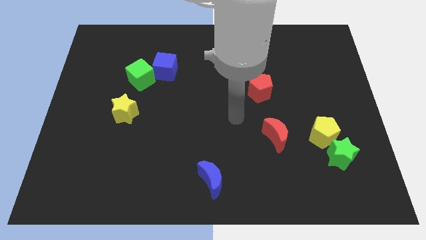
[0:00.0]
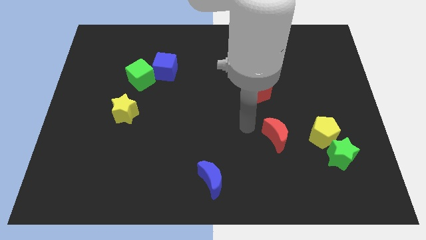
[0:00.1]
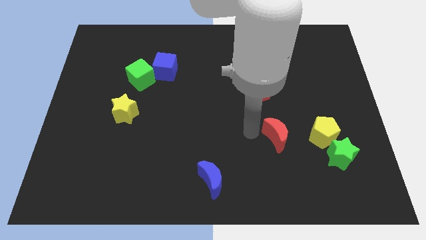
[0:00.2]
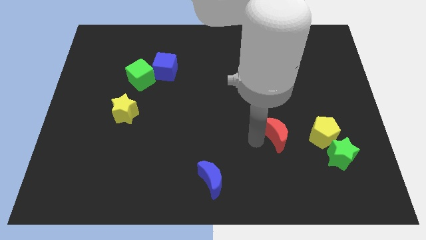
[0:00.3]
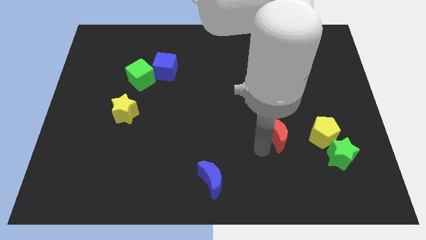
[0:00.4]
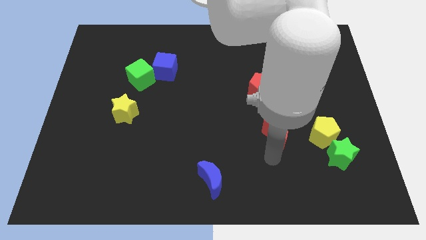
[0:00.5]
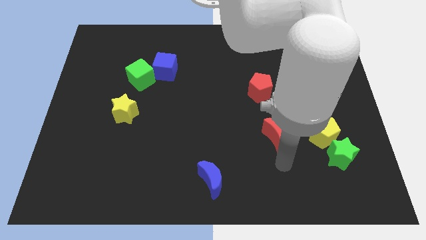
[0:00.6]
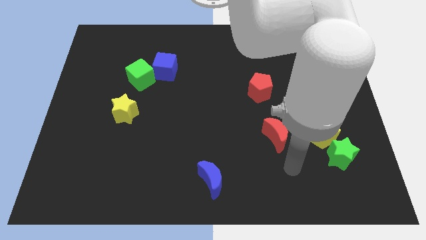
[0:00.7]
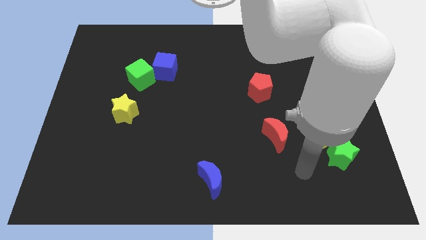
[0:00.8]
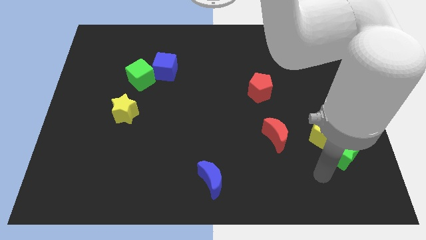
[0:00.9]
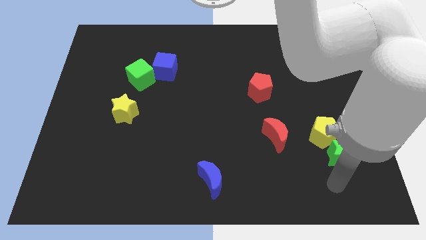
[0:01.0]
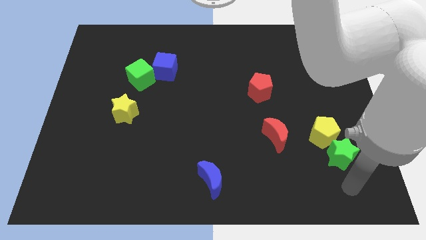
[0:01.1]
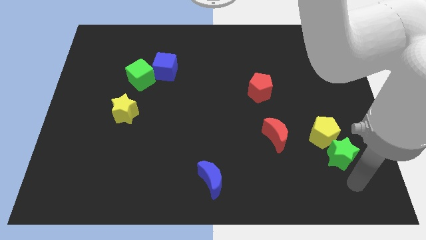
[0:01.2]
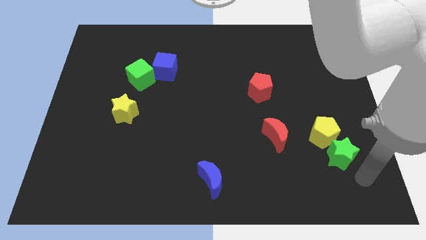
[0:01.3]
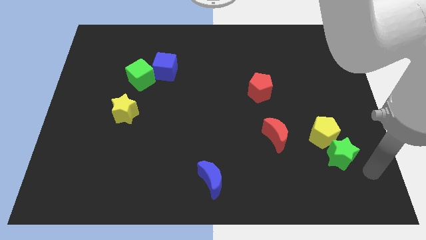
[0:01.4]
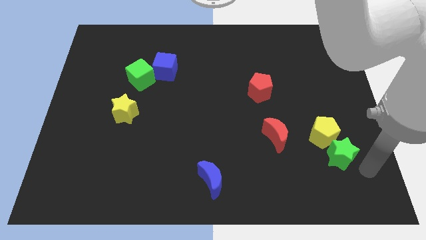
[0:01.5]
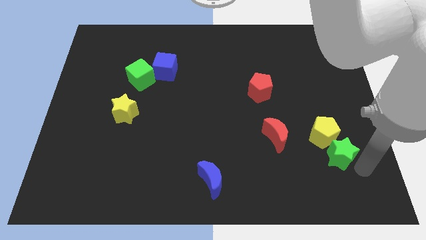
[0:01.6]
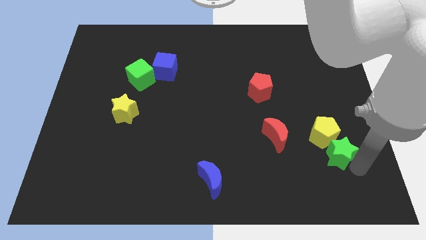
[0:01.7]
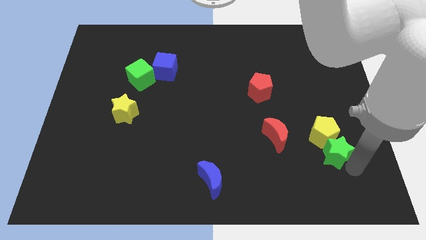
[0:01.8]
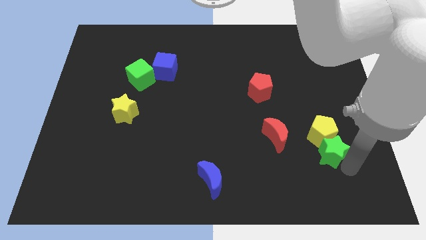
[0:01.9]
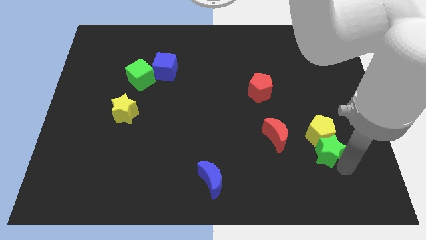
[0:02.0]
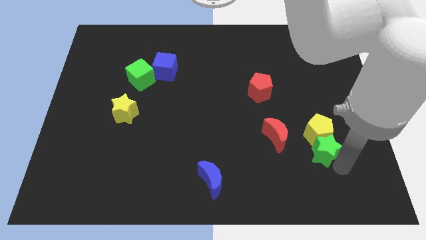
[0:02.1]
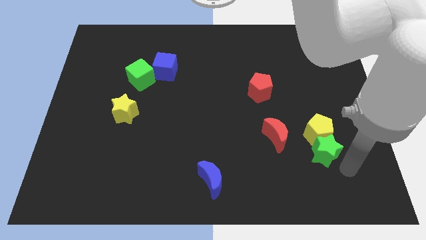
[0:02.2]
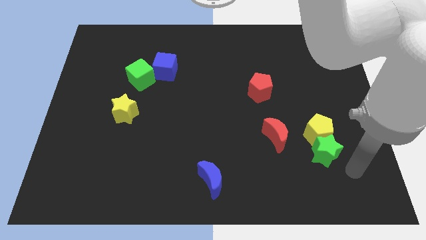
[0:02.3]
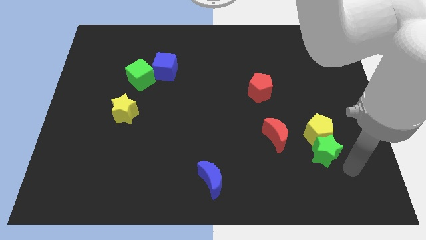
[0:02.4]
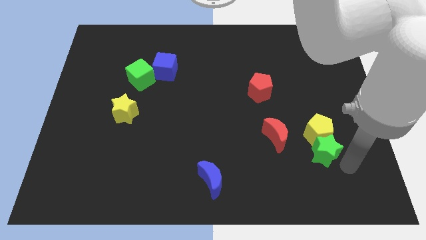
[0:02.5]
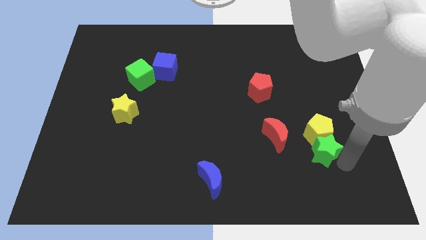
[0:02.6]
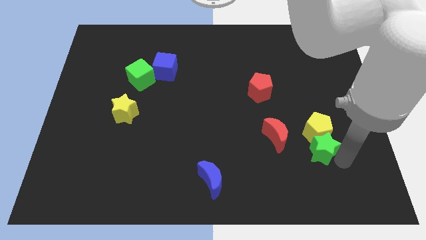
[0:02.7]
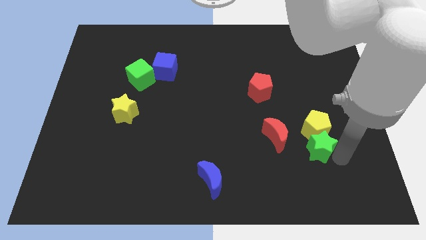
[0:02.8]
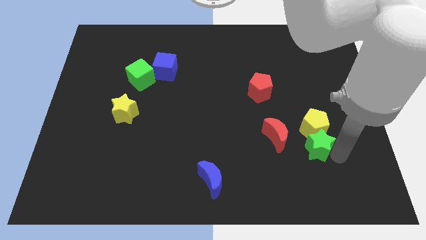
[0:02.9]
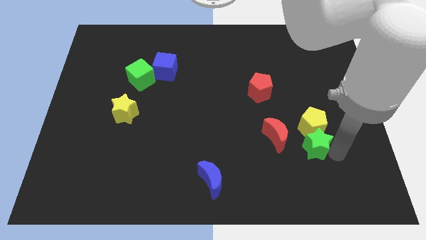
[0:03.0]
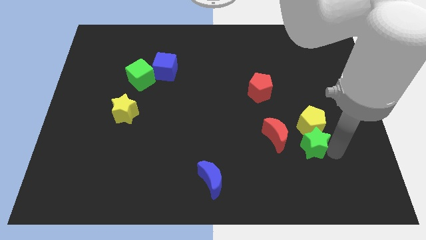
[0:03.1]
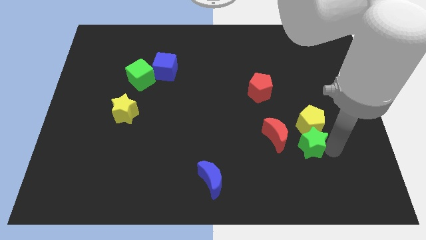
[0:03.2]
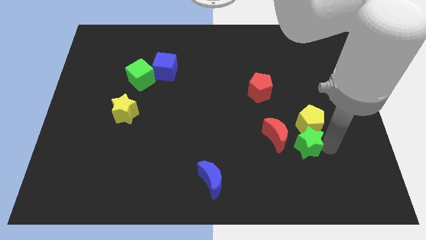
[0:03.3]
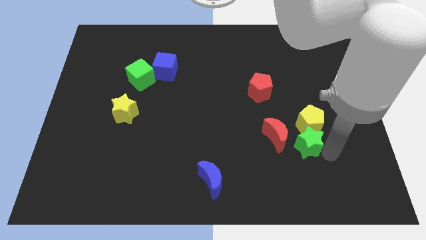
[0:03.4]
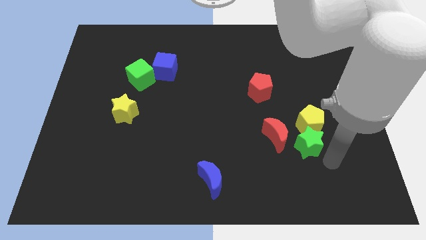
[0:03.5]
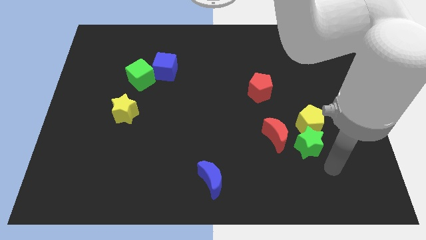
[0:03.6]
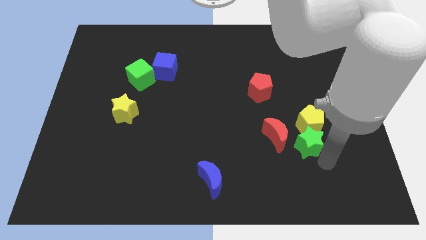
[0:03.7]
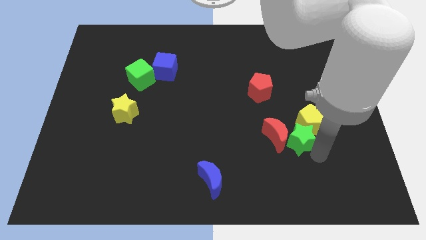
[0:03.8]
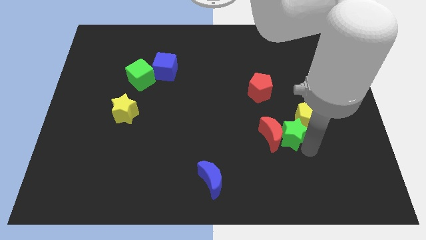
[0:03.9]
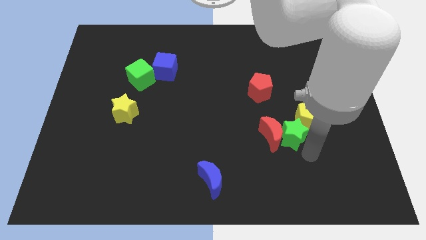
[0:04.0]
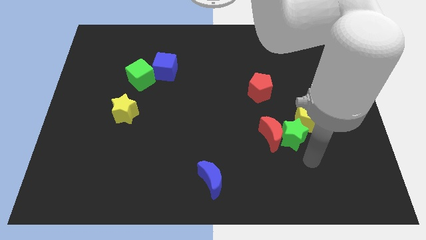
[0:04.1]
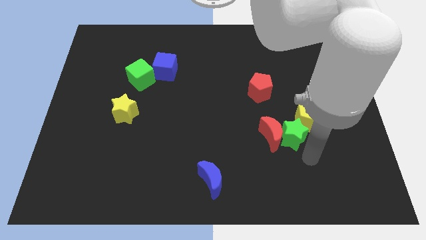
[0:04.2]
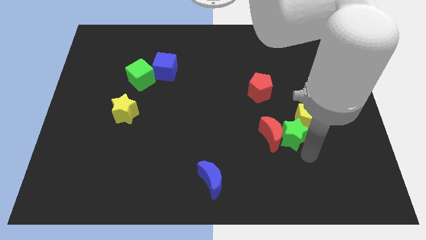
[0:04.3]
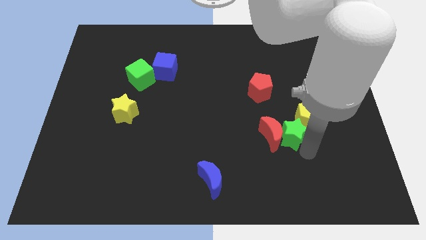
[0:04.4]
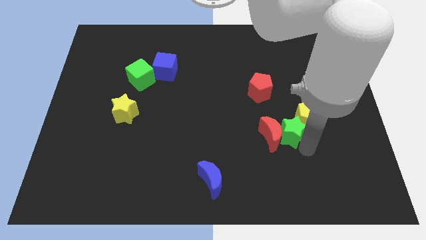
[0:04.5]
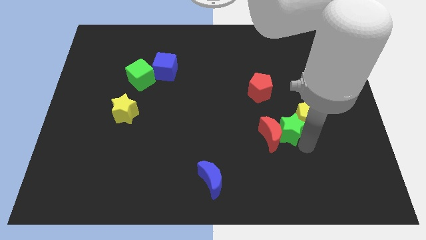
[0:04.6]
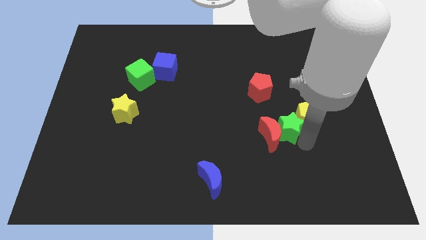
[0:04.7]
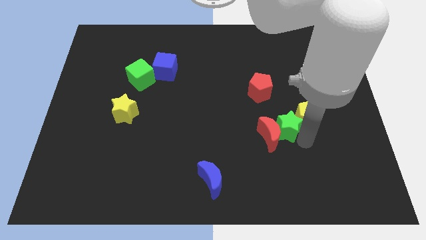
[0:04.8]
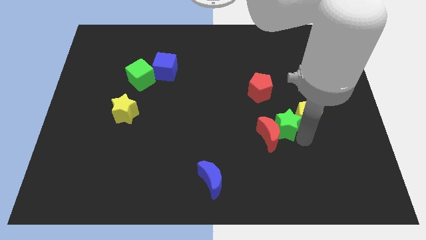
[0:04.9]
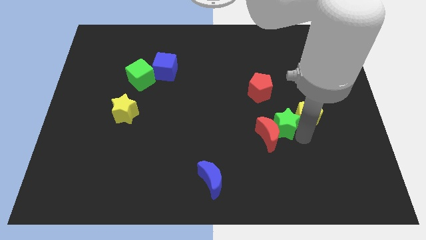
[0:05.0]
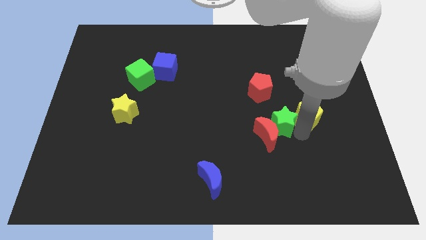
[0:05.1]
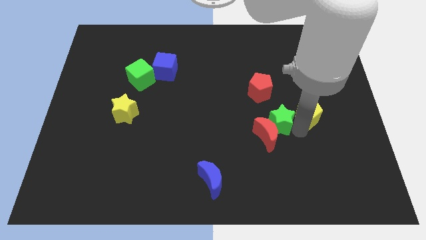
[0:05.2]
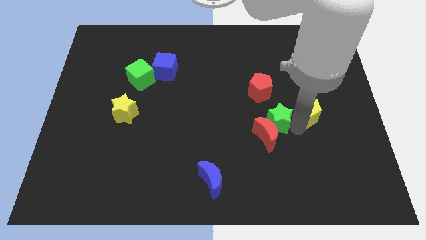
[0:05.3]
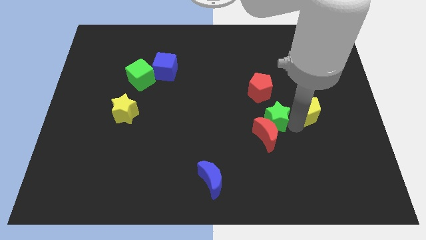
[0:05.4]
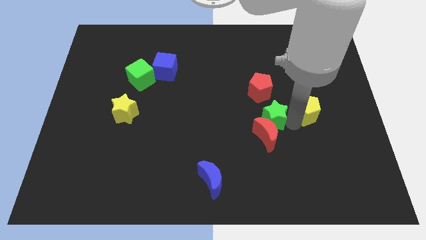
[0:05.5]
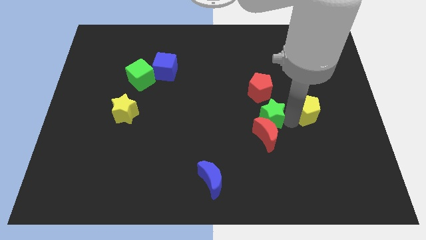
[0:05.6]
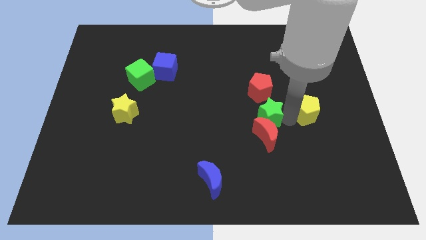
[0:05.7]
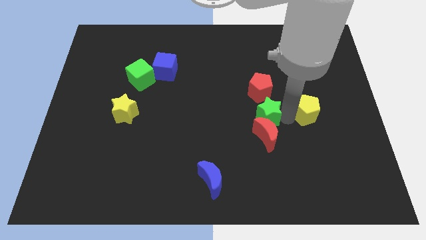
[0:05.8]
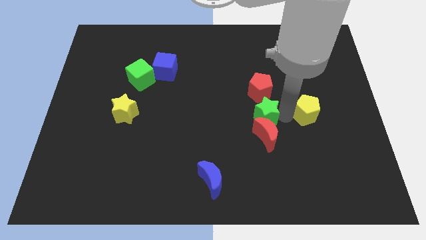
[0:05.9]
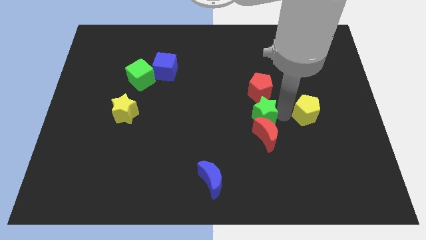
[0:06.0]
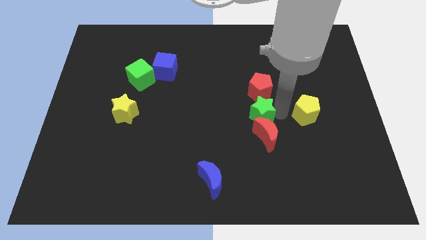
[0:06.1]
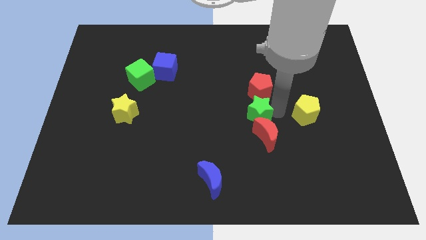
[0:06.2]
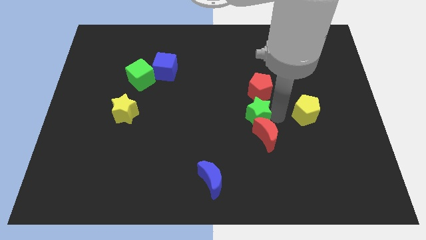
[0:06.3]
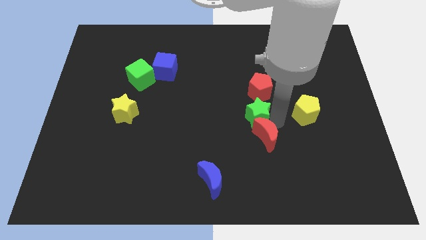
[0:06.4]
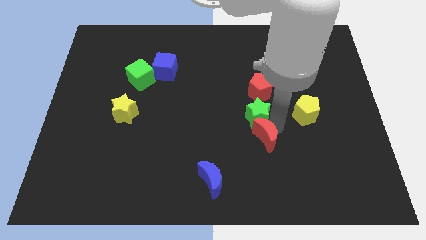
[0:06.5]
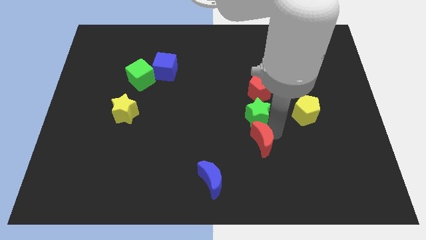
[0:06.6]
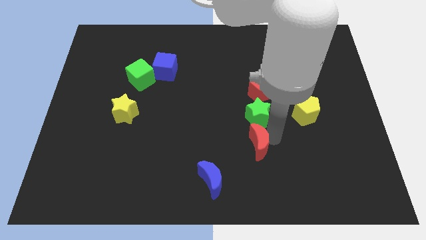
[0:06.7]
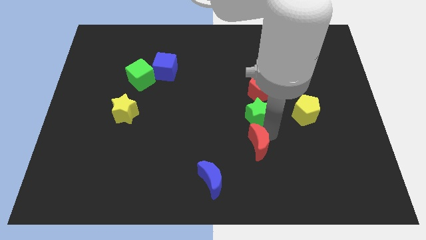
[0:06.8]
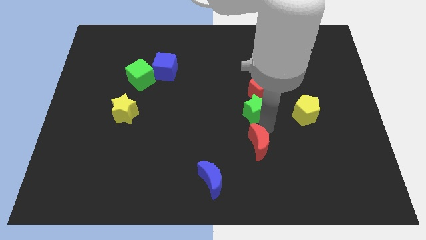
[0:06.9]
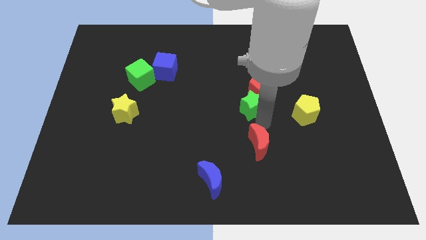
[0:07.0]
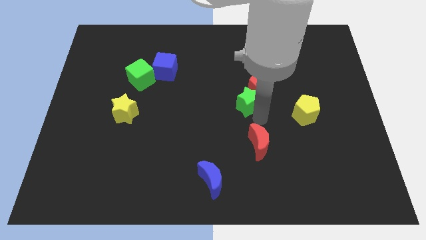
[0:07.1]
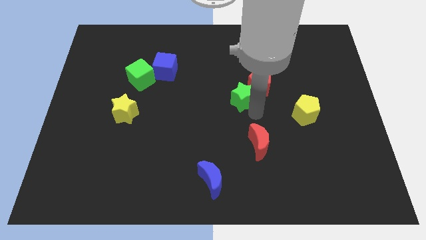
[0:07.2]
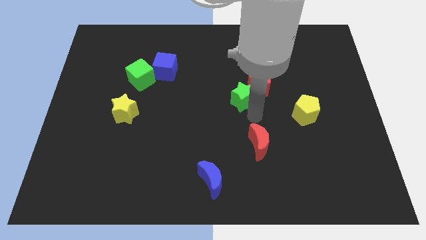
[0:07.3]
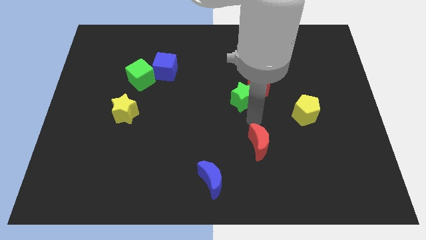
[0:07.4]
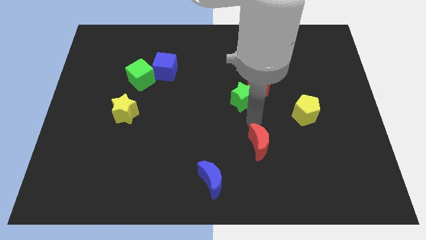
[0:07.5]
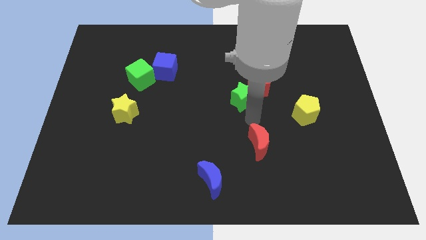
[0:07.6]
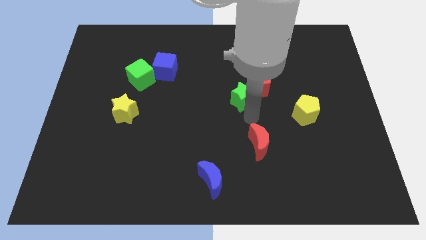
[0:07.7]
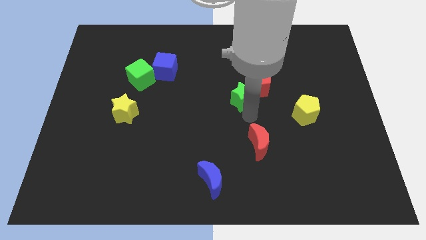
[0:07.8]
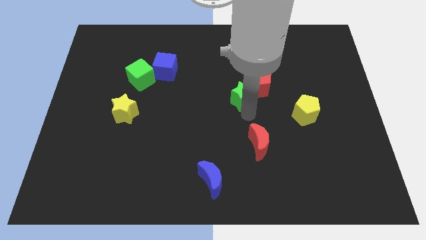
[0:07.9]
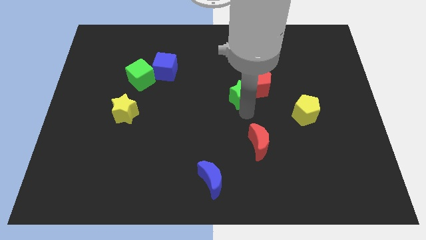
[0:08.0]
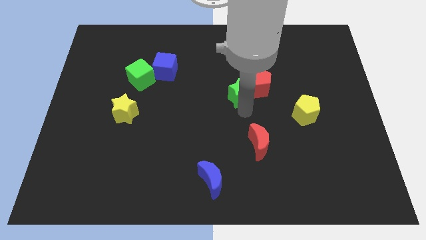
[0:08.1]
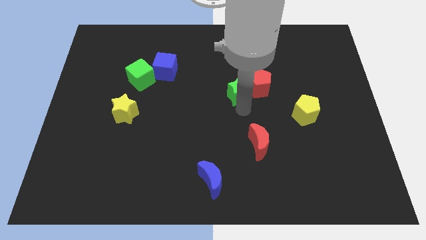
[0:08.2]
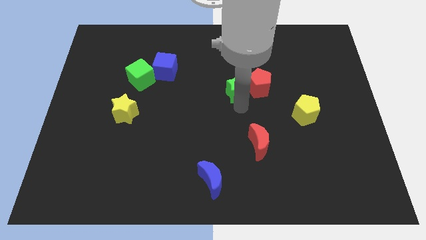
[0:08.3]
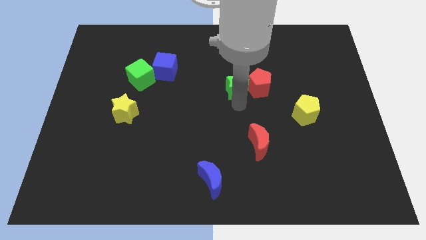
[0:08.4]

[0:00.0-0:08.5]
push the green star to the top left side of the red pentagon
